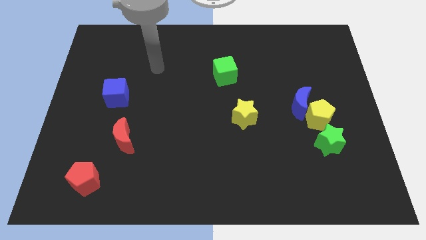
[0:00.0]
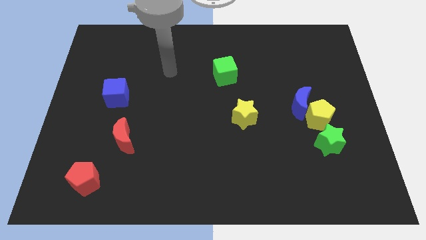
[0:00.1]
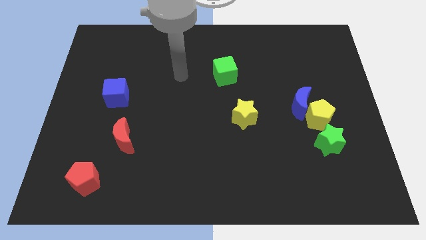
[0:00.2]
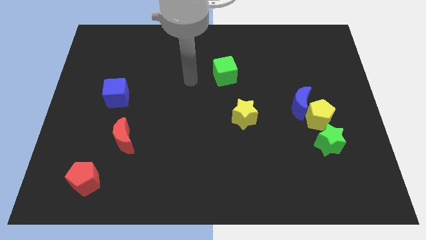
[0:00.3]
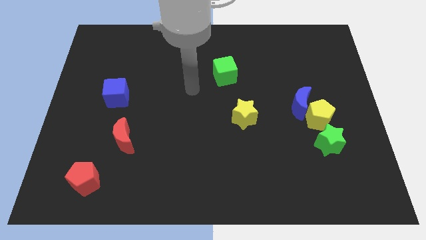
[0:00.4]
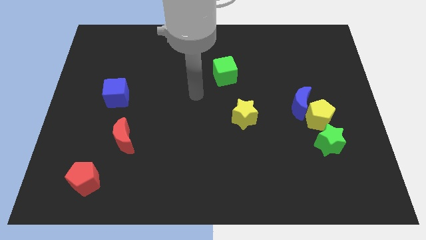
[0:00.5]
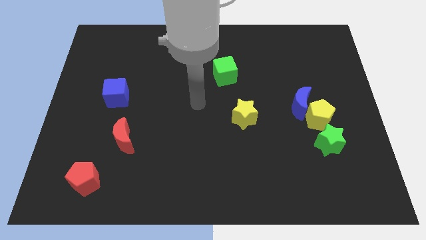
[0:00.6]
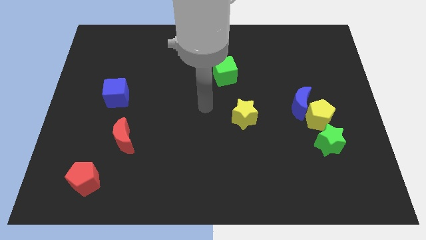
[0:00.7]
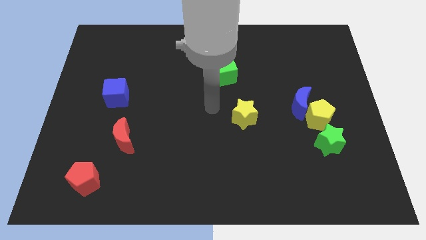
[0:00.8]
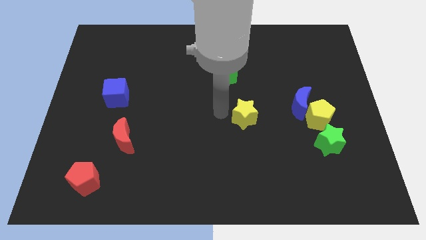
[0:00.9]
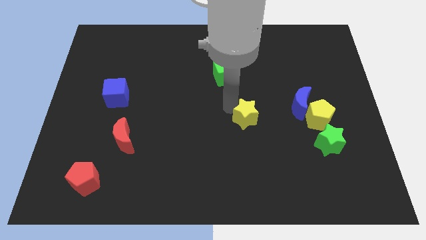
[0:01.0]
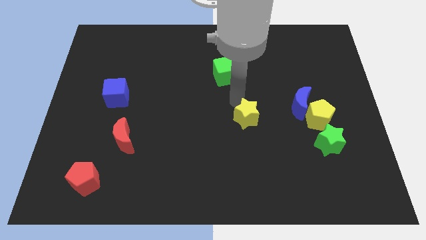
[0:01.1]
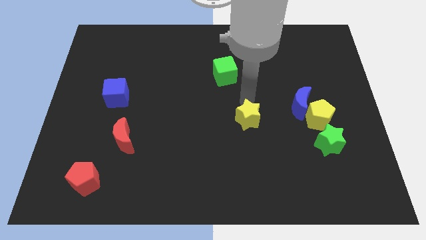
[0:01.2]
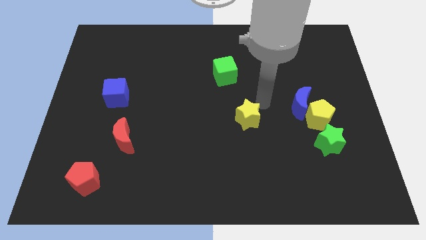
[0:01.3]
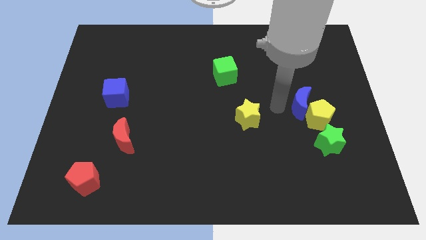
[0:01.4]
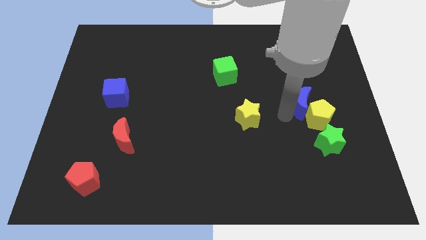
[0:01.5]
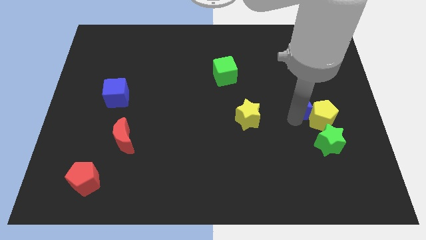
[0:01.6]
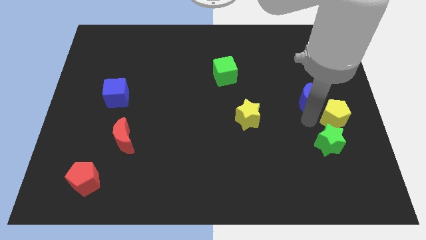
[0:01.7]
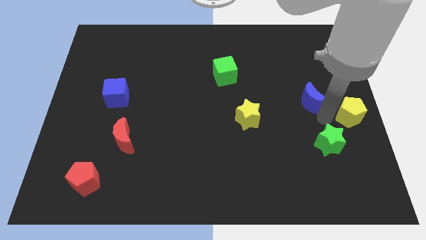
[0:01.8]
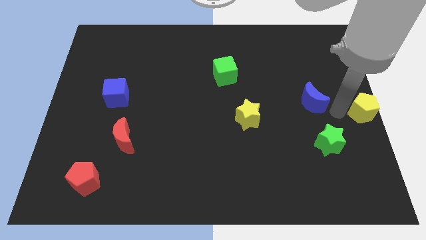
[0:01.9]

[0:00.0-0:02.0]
move the blue moon away from the yellow pentagon

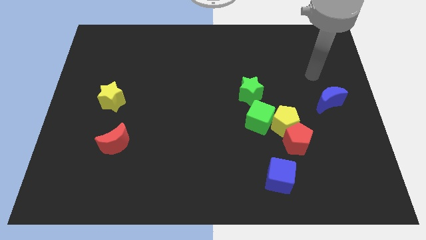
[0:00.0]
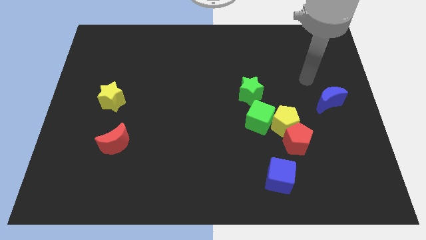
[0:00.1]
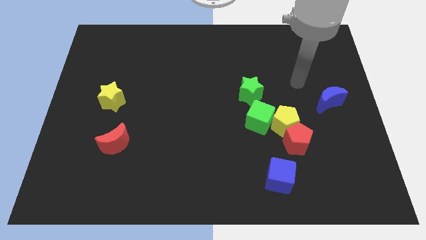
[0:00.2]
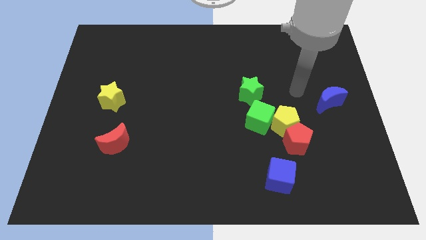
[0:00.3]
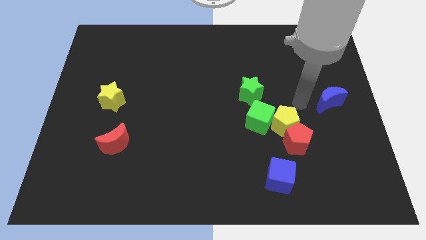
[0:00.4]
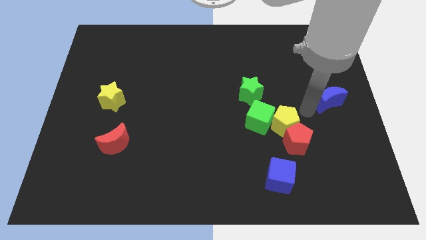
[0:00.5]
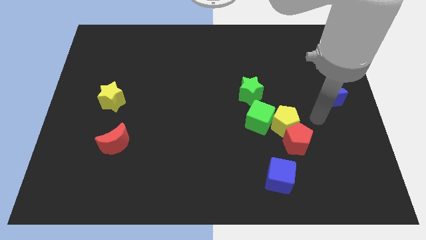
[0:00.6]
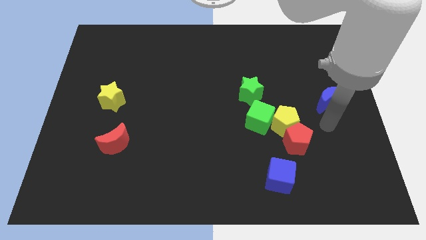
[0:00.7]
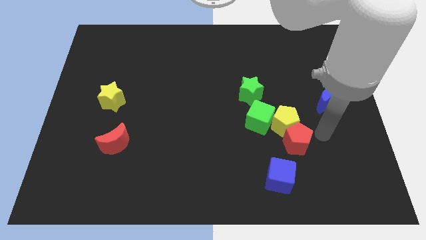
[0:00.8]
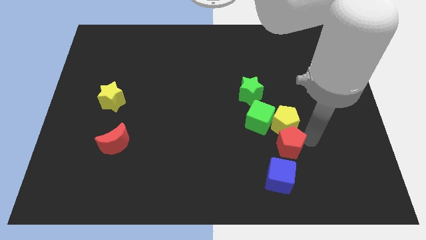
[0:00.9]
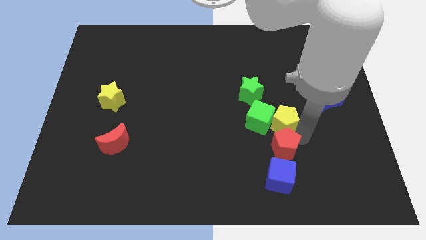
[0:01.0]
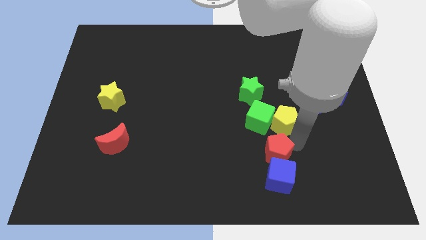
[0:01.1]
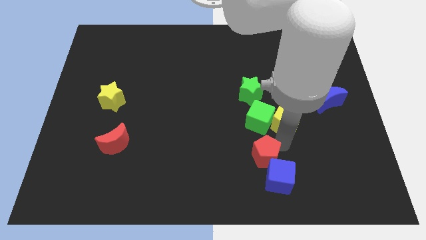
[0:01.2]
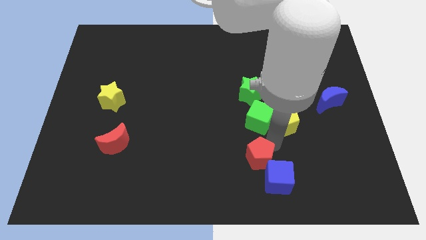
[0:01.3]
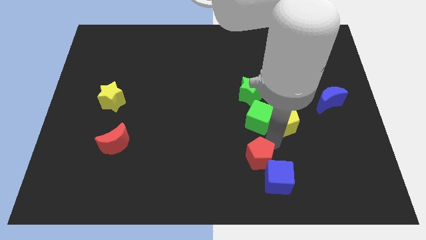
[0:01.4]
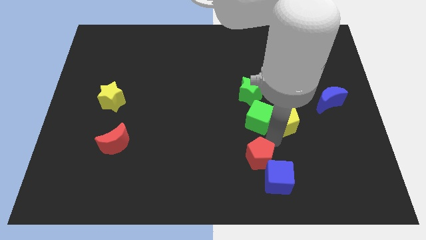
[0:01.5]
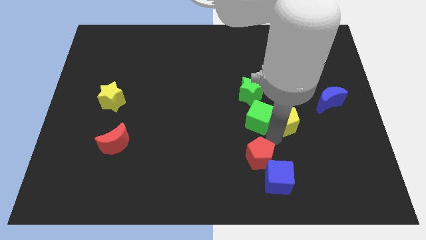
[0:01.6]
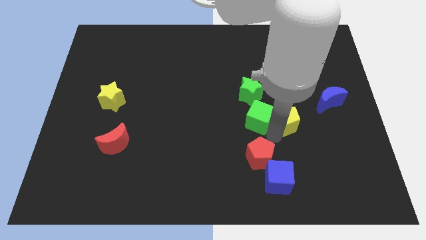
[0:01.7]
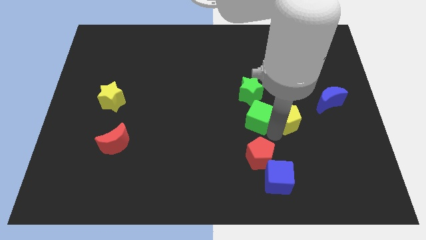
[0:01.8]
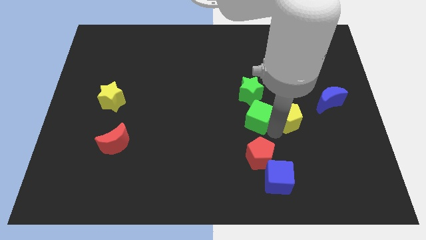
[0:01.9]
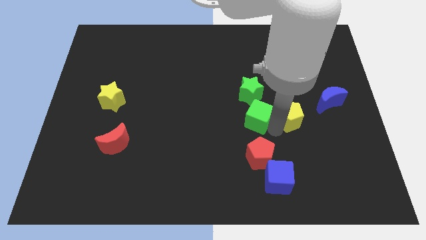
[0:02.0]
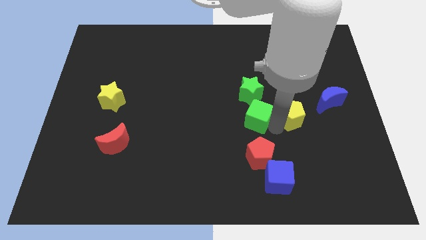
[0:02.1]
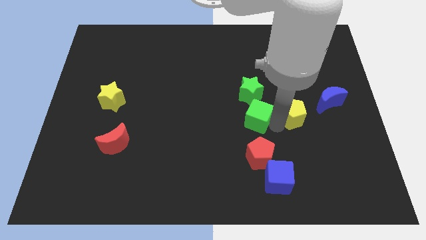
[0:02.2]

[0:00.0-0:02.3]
separate the yellow pentagon from the red pentagon and green cube

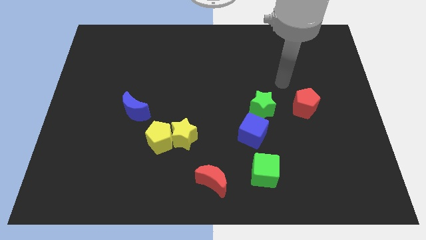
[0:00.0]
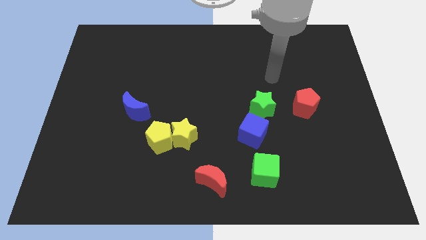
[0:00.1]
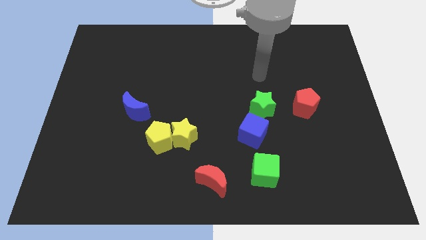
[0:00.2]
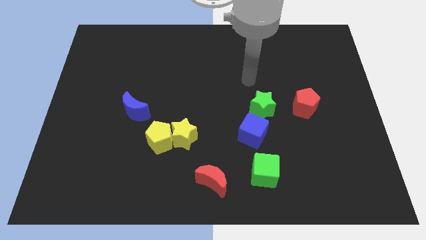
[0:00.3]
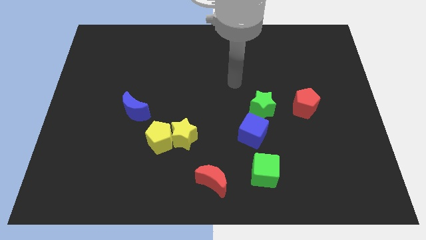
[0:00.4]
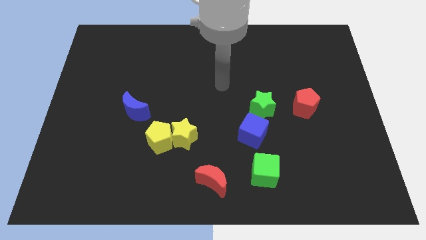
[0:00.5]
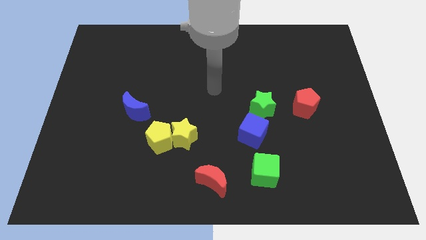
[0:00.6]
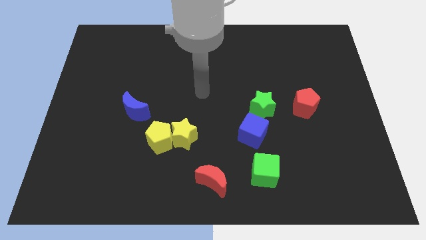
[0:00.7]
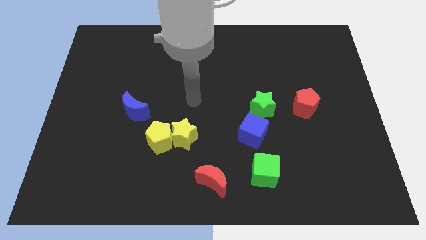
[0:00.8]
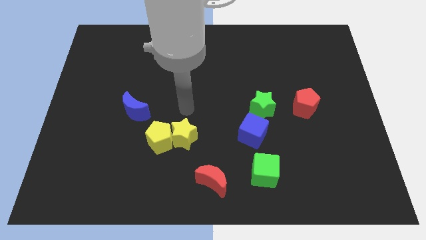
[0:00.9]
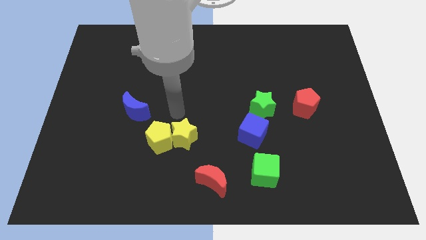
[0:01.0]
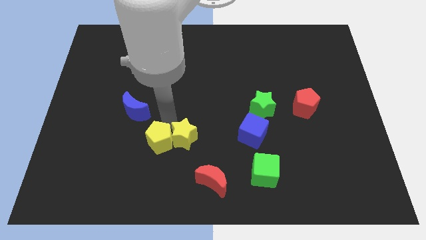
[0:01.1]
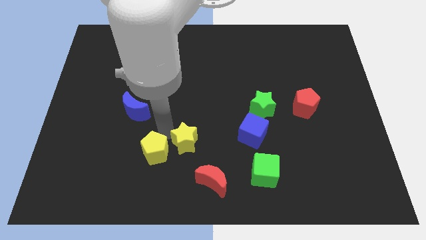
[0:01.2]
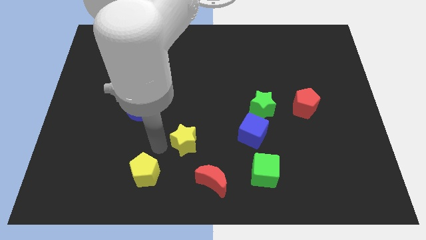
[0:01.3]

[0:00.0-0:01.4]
move the yellow star away from the yellow pentagon

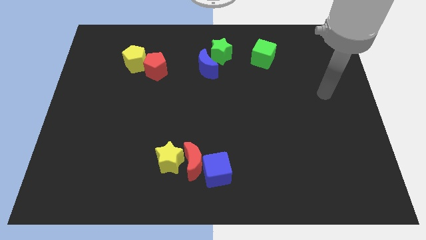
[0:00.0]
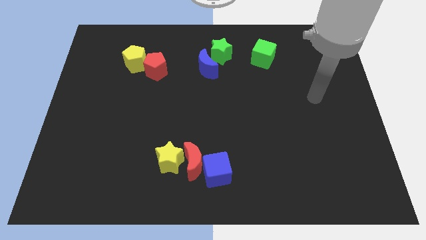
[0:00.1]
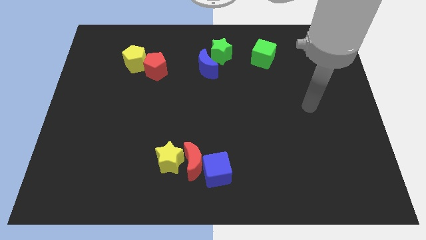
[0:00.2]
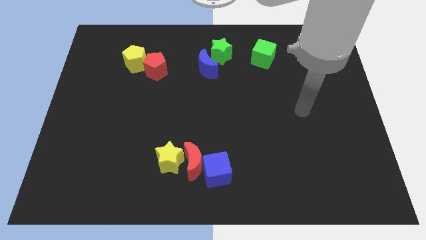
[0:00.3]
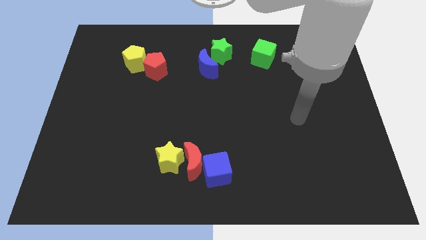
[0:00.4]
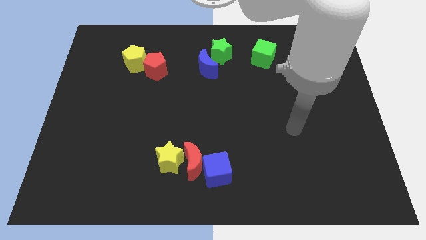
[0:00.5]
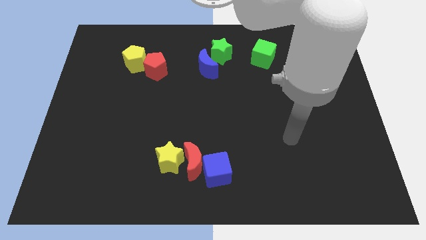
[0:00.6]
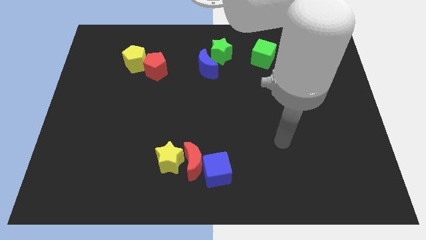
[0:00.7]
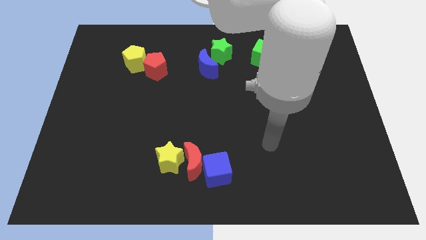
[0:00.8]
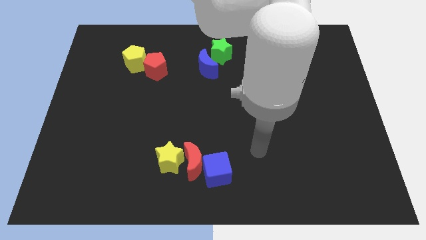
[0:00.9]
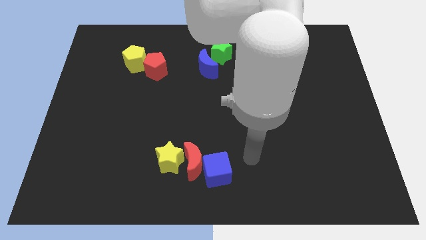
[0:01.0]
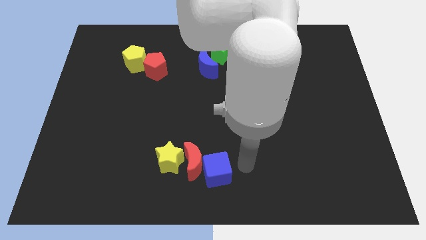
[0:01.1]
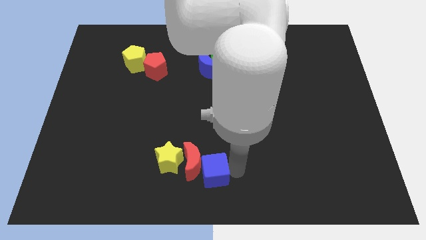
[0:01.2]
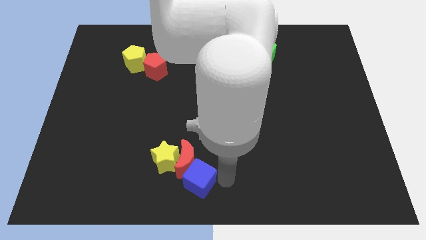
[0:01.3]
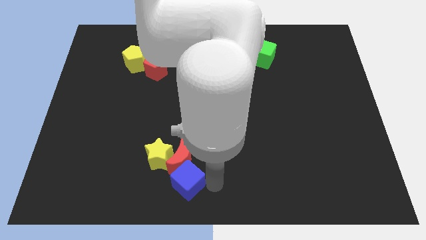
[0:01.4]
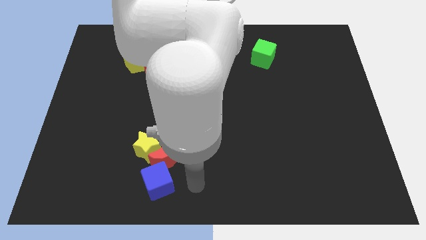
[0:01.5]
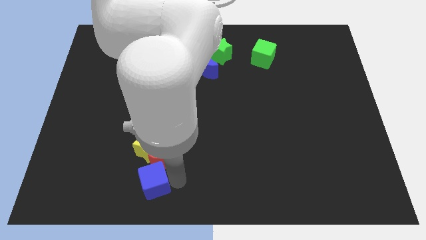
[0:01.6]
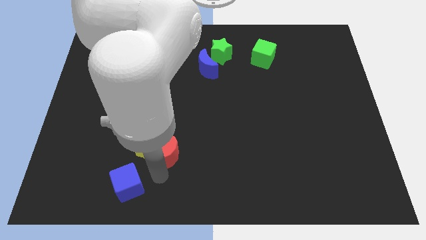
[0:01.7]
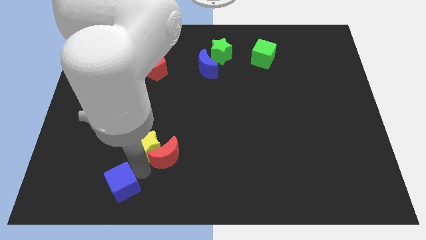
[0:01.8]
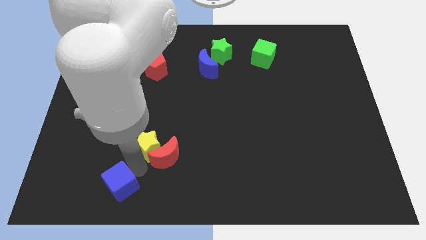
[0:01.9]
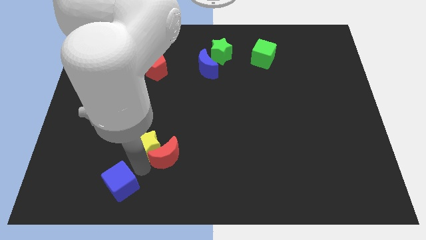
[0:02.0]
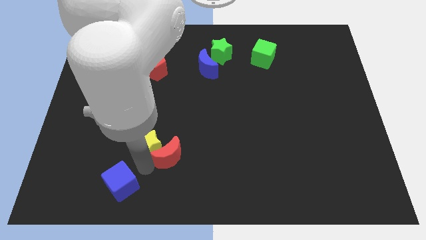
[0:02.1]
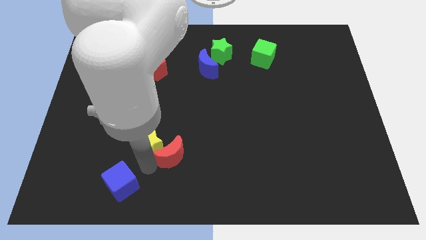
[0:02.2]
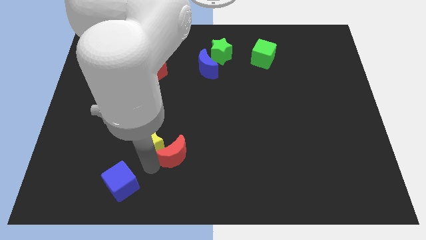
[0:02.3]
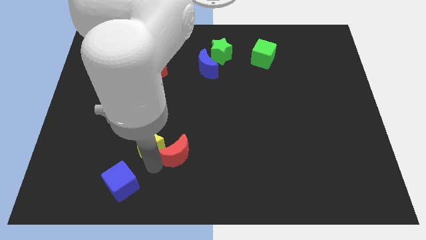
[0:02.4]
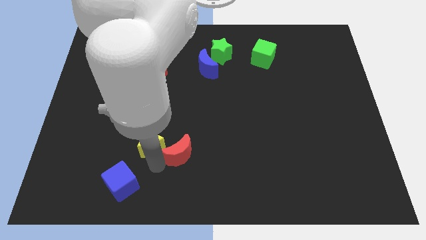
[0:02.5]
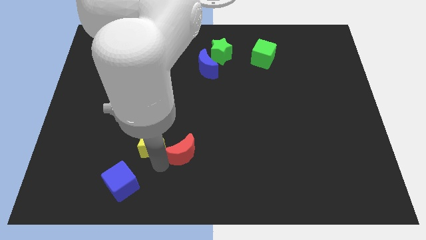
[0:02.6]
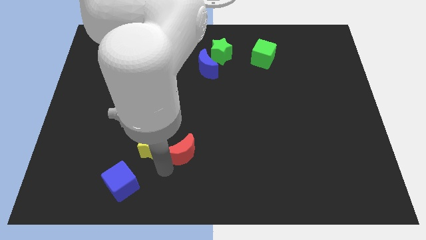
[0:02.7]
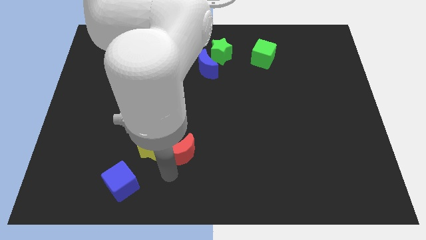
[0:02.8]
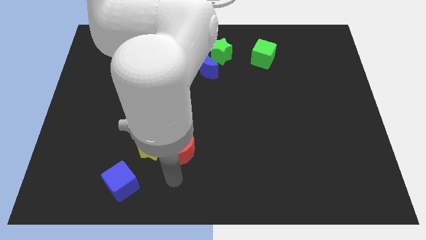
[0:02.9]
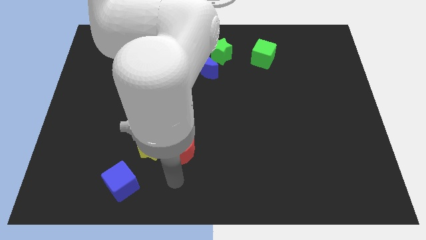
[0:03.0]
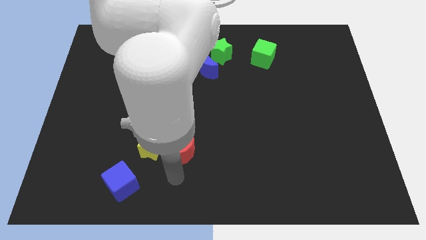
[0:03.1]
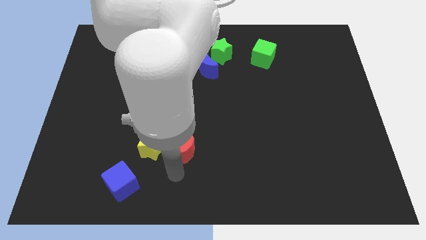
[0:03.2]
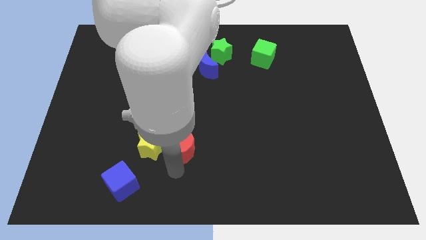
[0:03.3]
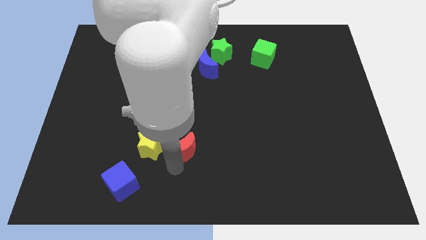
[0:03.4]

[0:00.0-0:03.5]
pull the red moon apart from the yellow star and blue cube

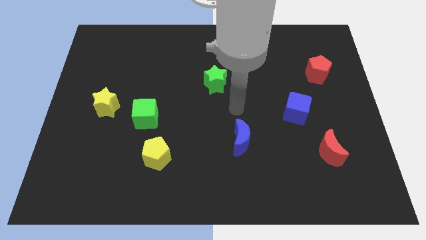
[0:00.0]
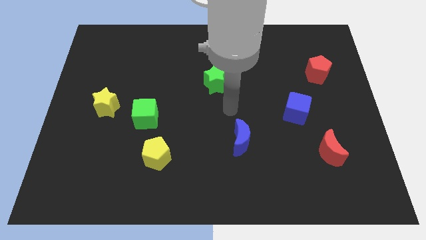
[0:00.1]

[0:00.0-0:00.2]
separate the green cube from the yellow star
